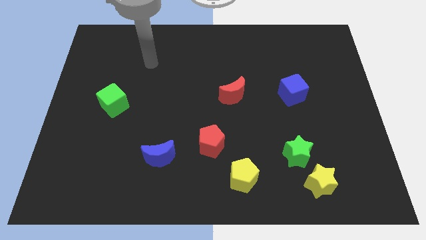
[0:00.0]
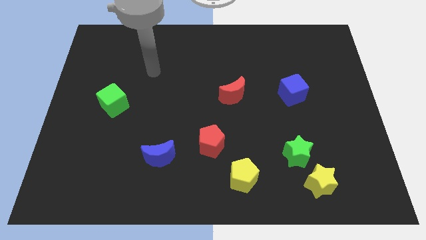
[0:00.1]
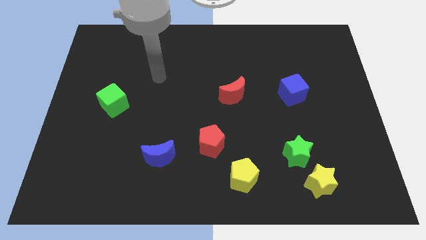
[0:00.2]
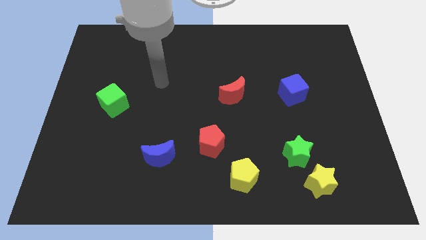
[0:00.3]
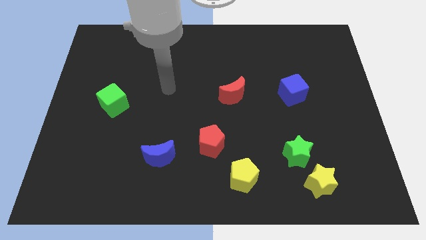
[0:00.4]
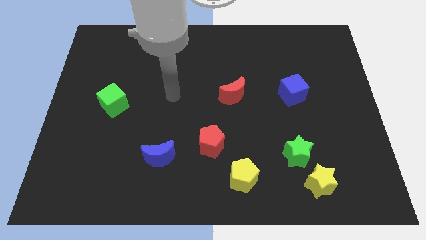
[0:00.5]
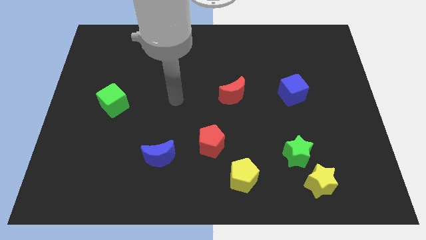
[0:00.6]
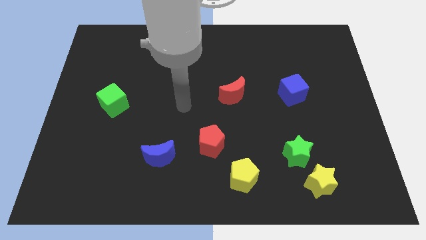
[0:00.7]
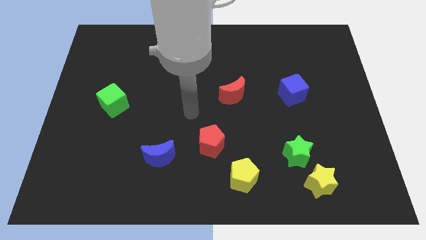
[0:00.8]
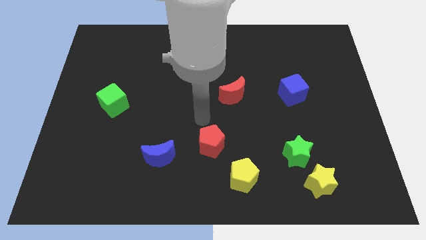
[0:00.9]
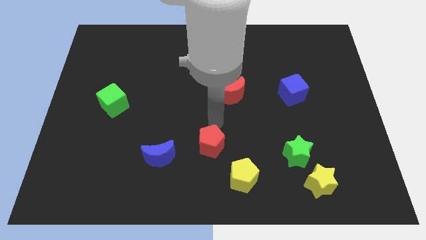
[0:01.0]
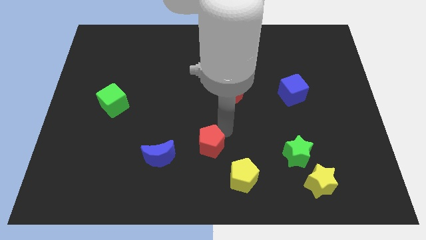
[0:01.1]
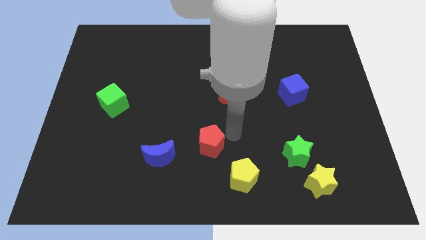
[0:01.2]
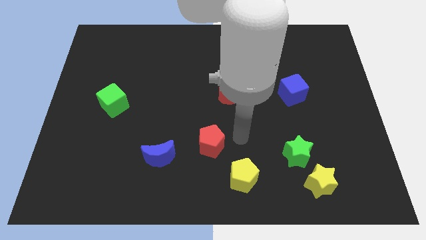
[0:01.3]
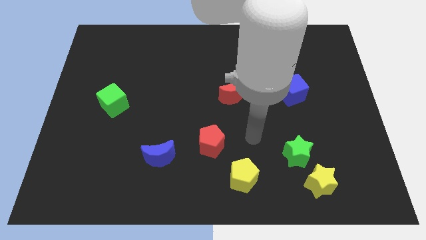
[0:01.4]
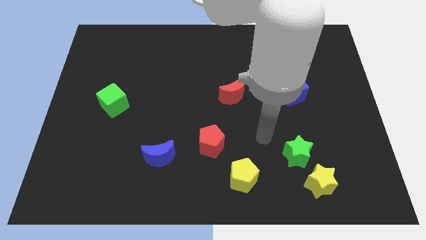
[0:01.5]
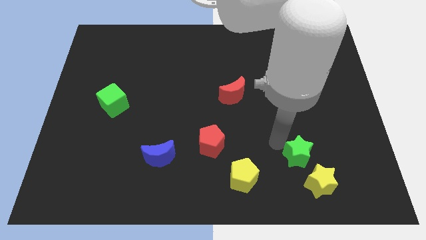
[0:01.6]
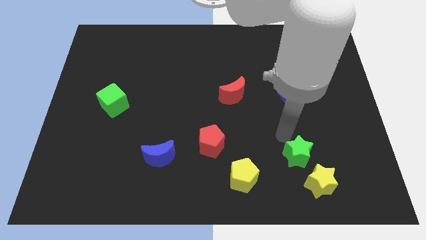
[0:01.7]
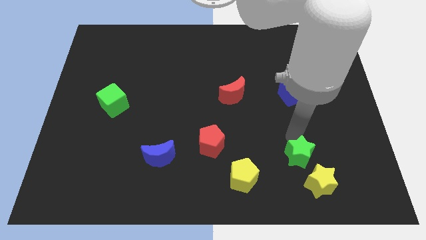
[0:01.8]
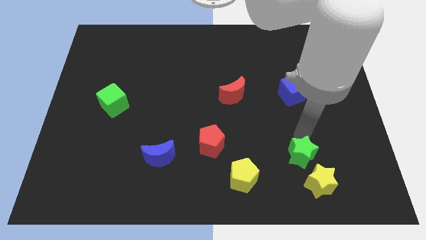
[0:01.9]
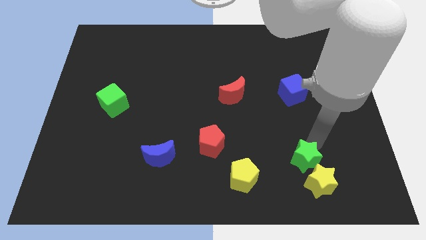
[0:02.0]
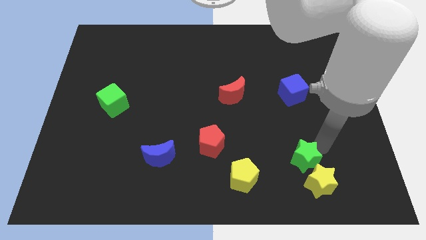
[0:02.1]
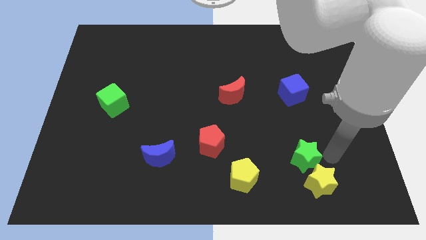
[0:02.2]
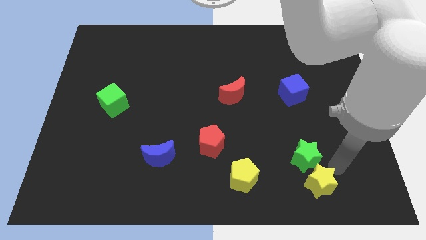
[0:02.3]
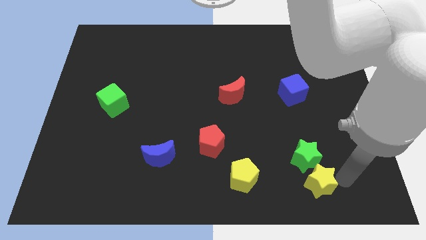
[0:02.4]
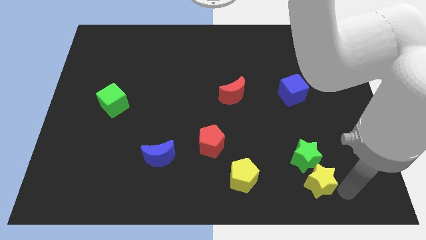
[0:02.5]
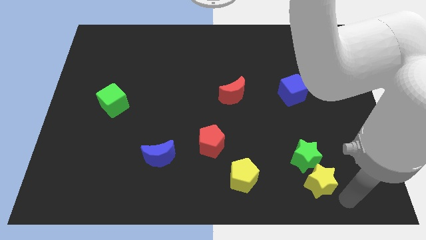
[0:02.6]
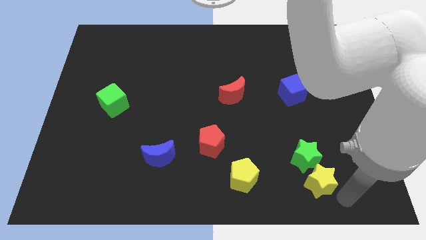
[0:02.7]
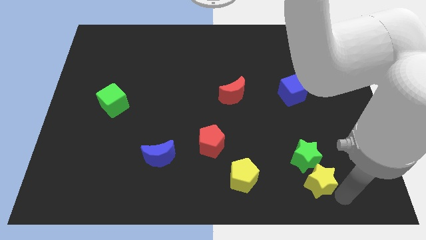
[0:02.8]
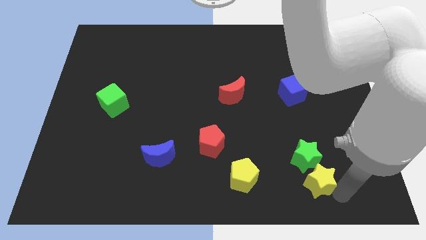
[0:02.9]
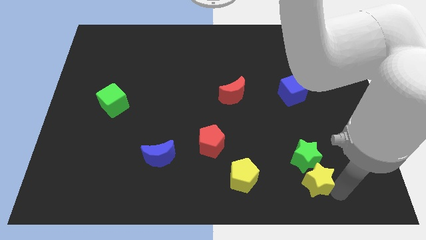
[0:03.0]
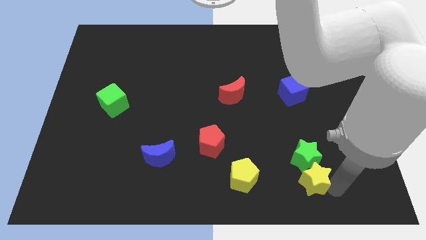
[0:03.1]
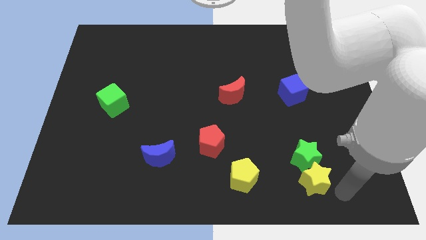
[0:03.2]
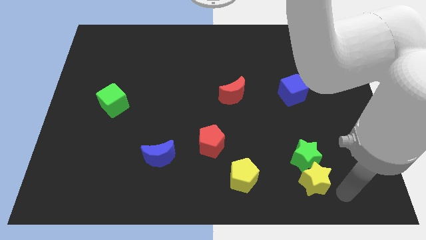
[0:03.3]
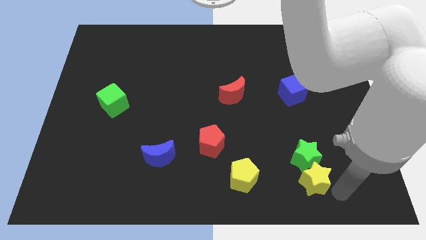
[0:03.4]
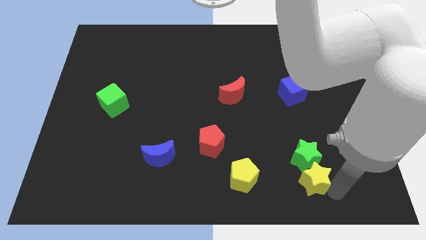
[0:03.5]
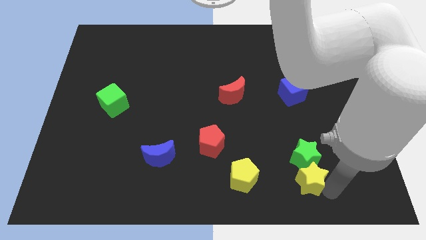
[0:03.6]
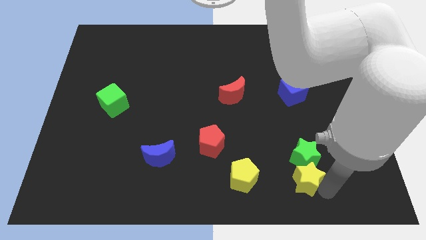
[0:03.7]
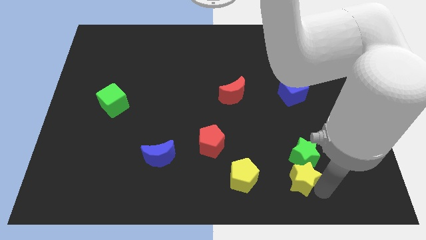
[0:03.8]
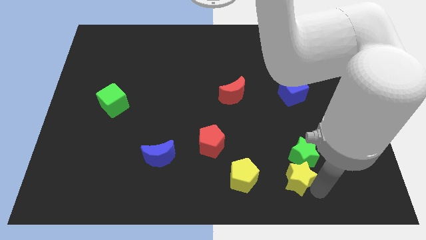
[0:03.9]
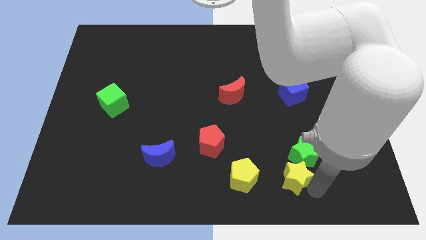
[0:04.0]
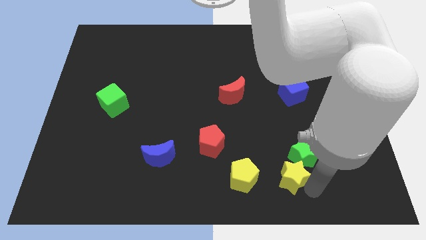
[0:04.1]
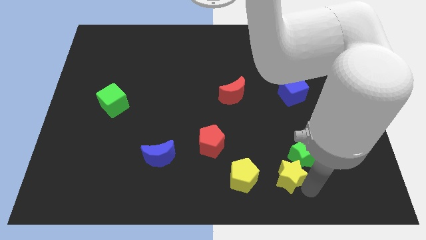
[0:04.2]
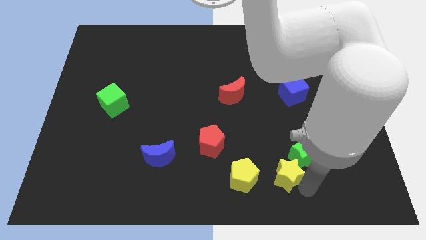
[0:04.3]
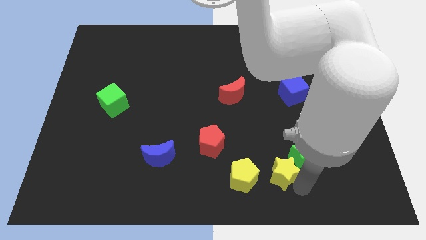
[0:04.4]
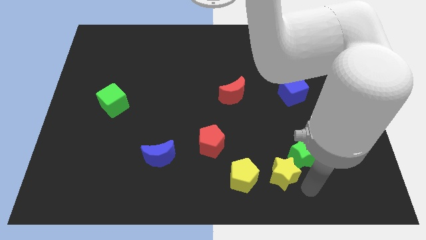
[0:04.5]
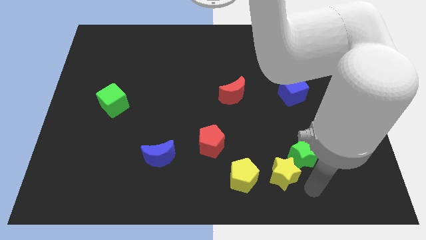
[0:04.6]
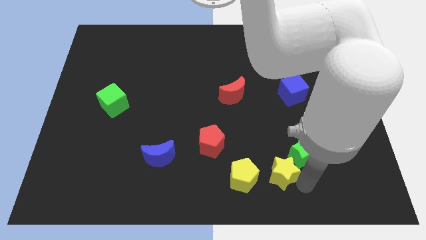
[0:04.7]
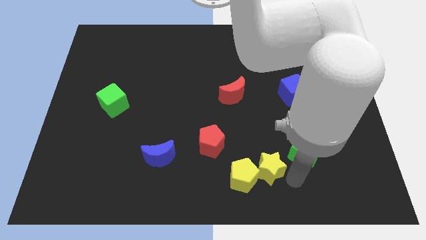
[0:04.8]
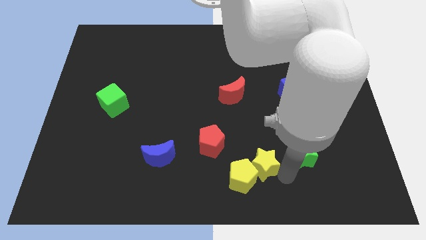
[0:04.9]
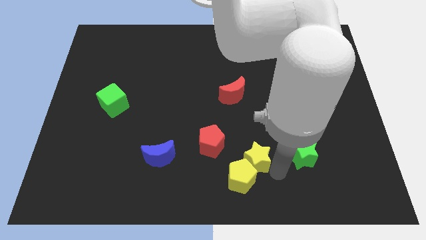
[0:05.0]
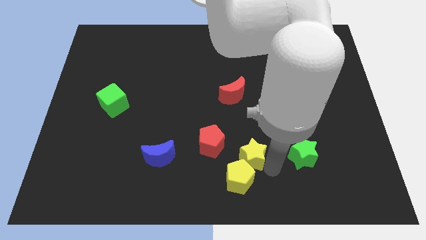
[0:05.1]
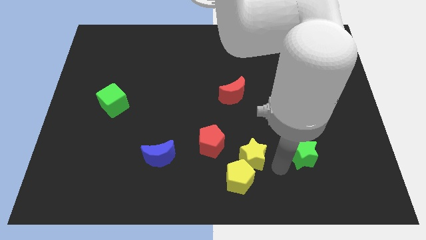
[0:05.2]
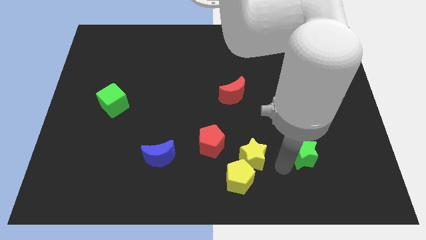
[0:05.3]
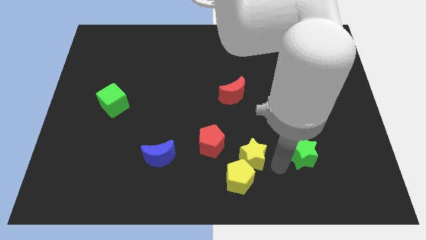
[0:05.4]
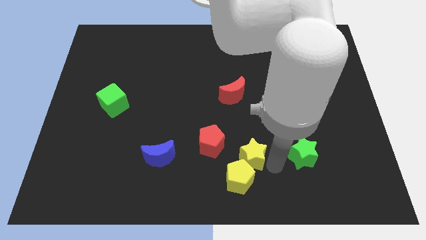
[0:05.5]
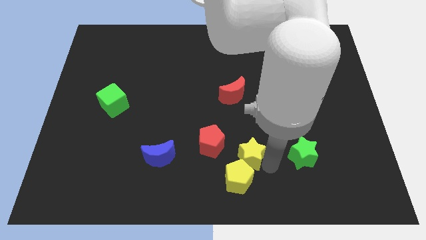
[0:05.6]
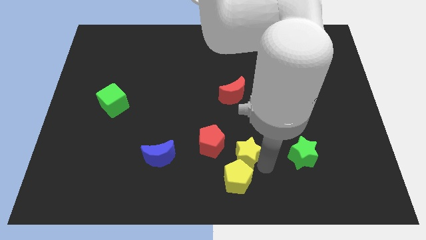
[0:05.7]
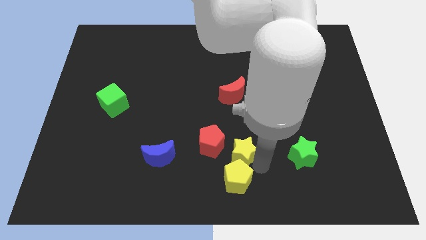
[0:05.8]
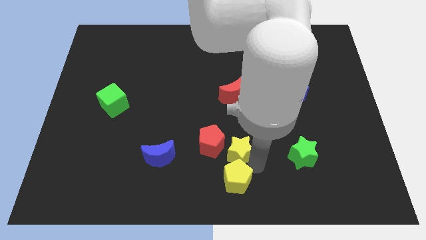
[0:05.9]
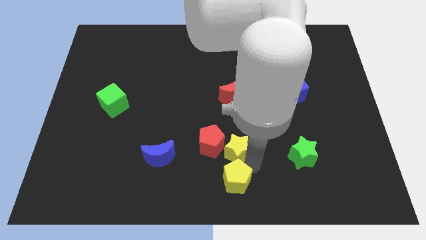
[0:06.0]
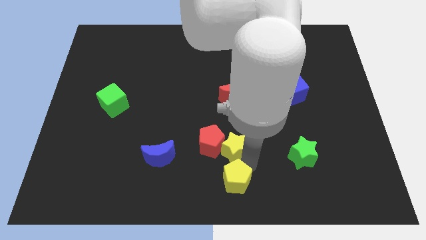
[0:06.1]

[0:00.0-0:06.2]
put the yellow star close to the red pentagon

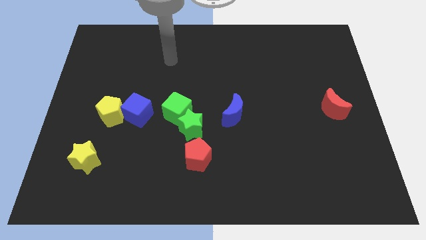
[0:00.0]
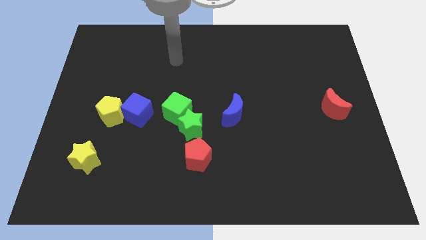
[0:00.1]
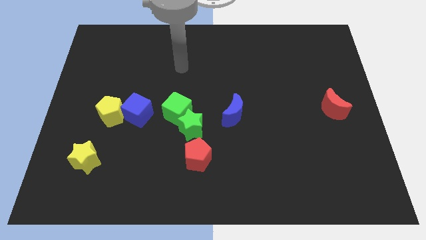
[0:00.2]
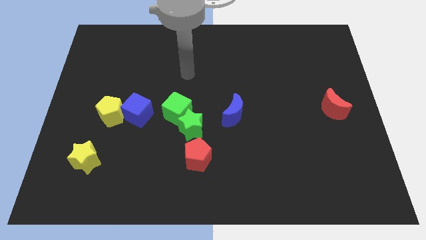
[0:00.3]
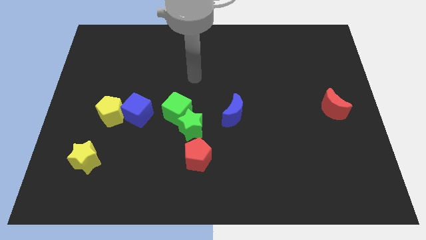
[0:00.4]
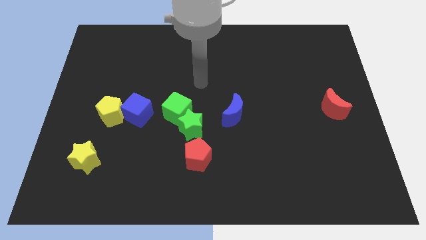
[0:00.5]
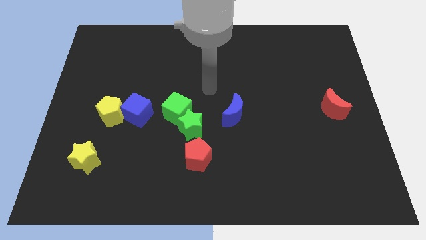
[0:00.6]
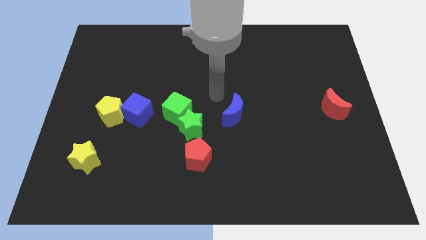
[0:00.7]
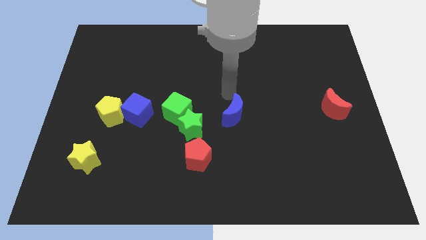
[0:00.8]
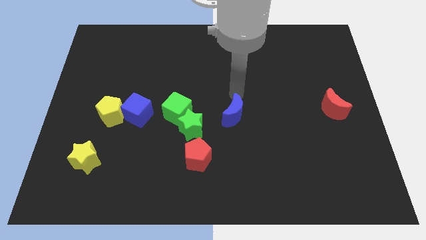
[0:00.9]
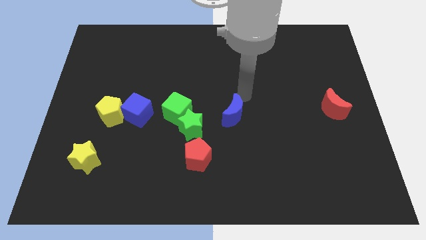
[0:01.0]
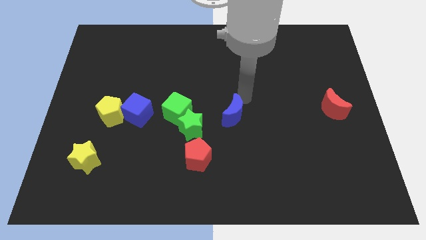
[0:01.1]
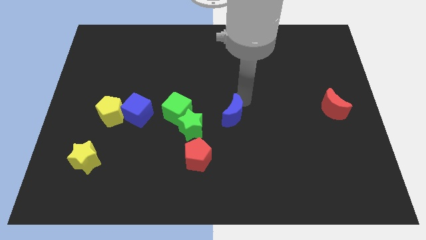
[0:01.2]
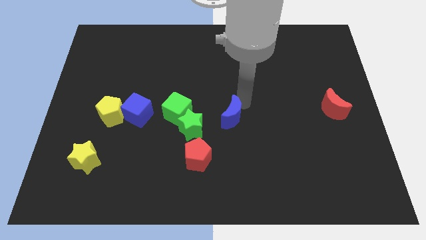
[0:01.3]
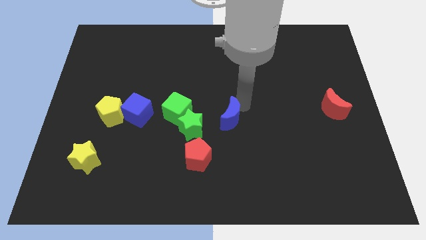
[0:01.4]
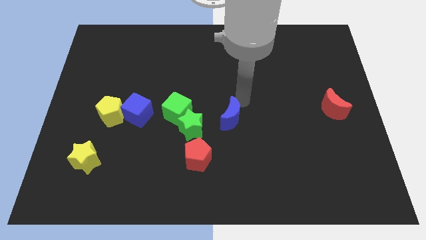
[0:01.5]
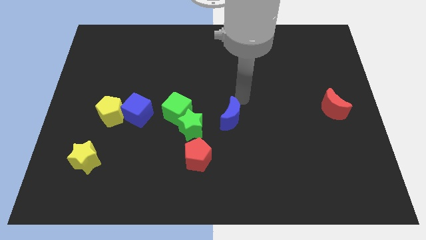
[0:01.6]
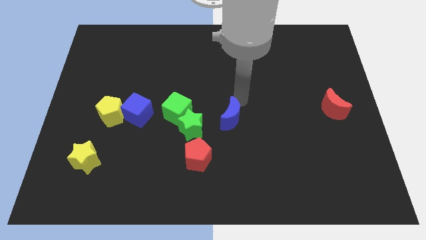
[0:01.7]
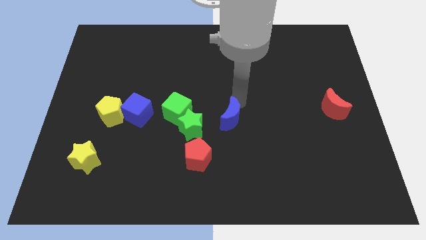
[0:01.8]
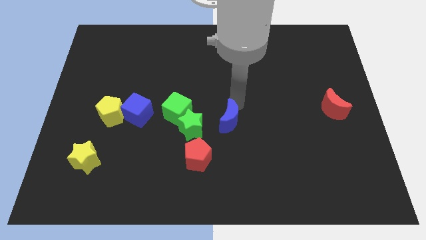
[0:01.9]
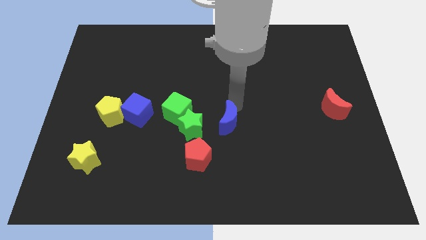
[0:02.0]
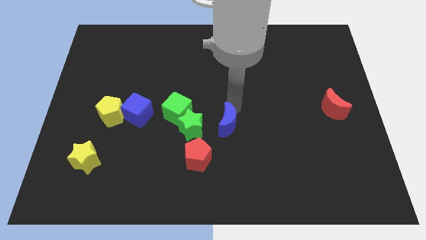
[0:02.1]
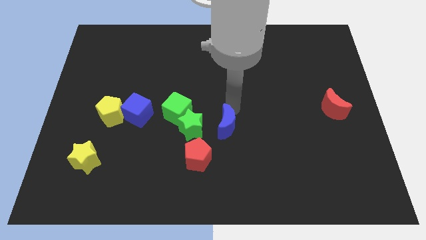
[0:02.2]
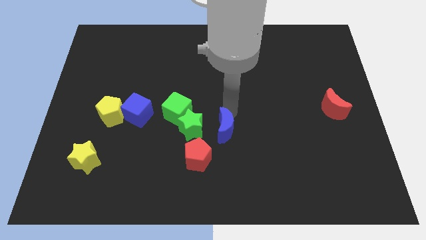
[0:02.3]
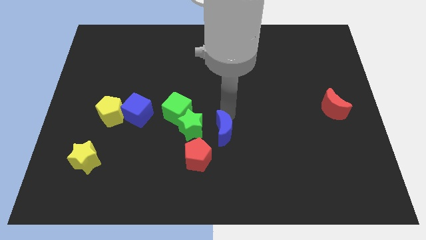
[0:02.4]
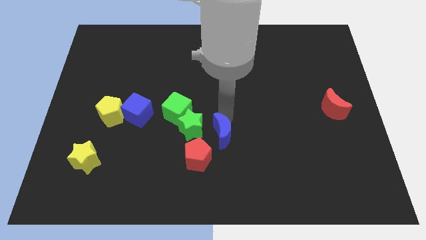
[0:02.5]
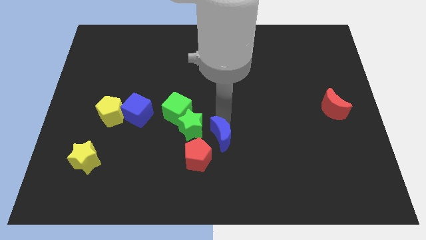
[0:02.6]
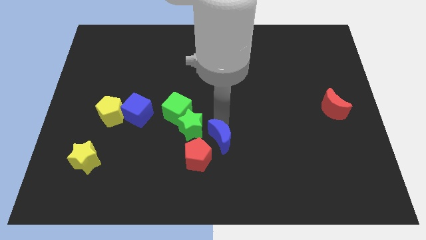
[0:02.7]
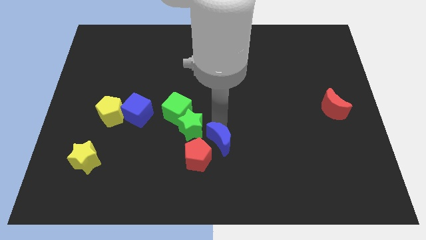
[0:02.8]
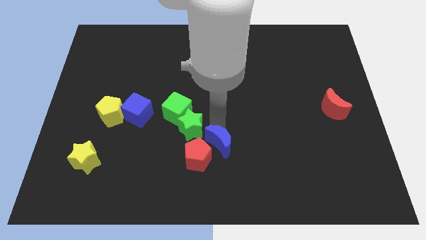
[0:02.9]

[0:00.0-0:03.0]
move the blue moon close to the red pentagon
